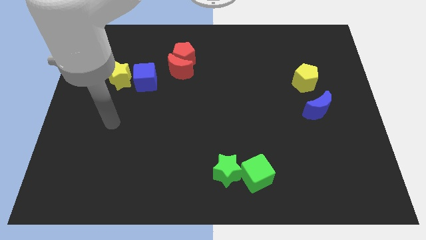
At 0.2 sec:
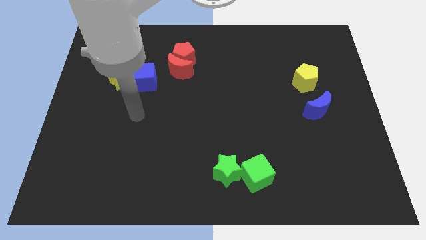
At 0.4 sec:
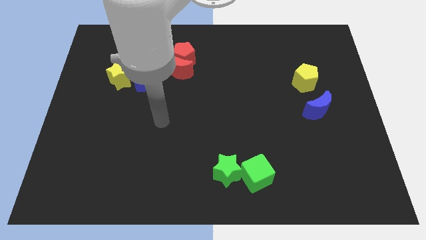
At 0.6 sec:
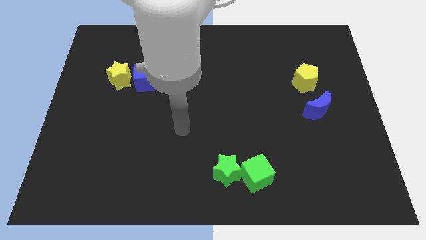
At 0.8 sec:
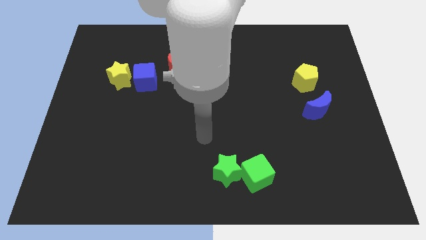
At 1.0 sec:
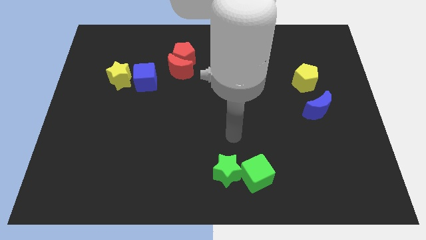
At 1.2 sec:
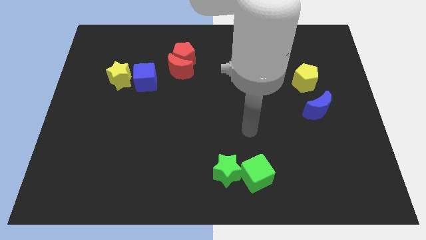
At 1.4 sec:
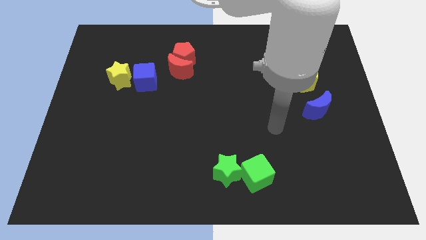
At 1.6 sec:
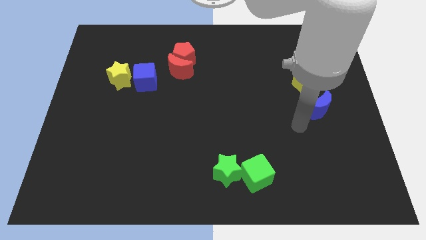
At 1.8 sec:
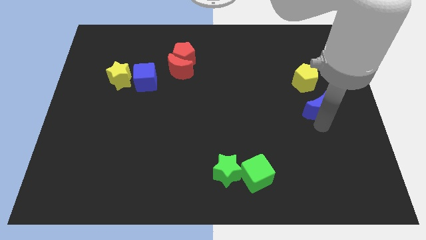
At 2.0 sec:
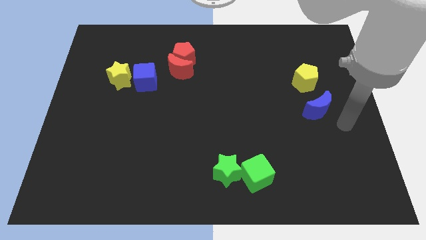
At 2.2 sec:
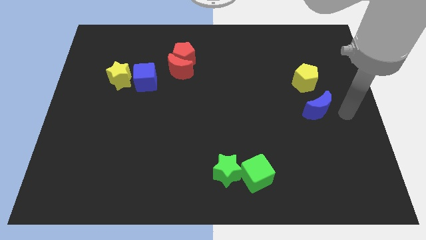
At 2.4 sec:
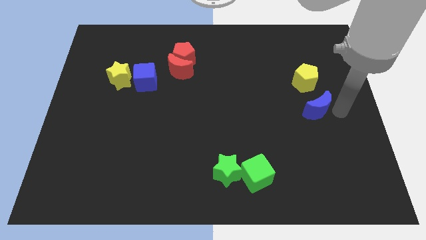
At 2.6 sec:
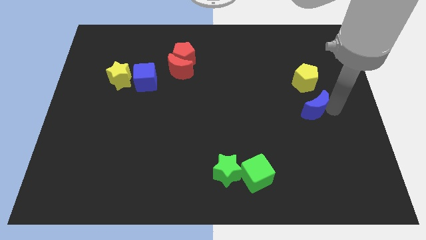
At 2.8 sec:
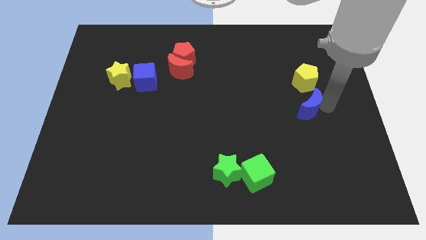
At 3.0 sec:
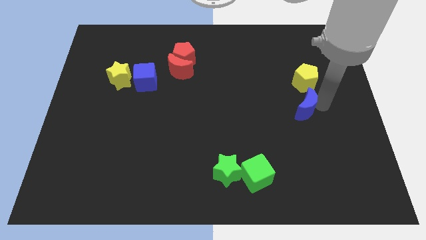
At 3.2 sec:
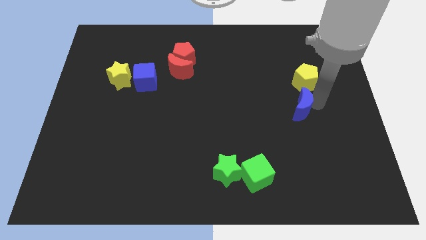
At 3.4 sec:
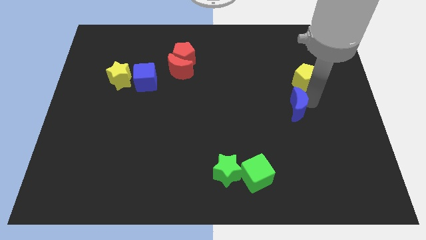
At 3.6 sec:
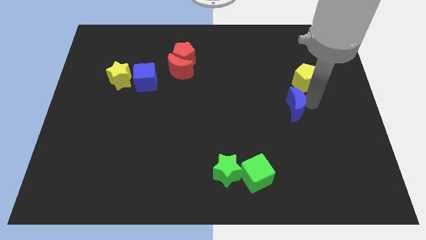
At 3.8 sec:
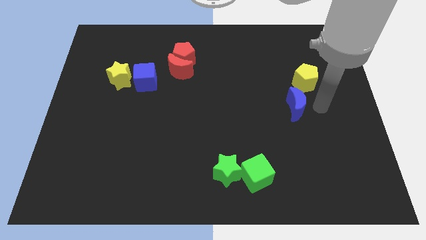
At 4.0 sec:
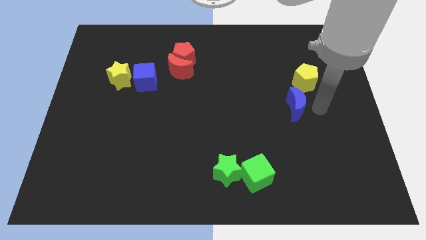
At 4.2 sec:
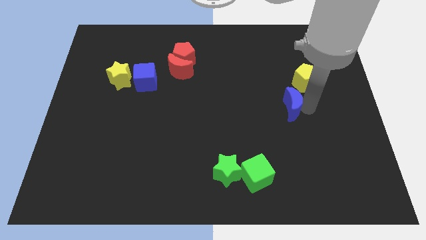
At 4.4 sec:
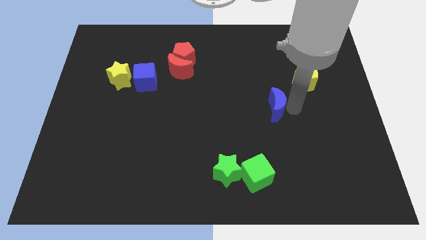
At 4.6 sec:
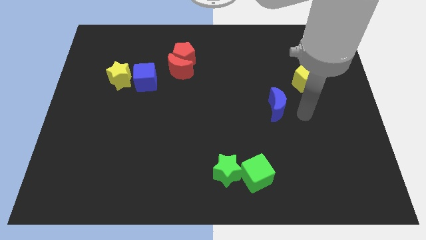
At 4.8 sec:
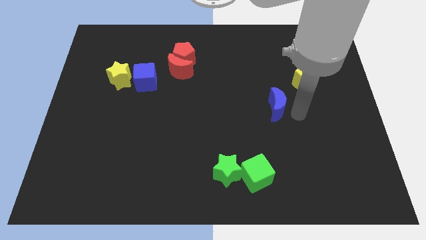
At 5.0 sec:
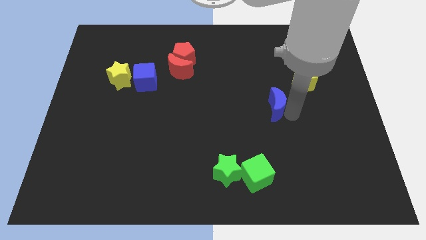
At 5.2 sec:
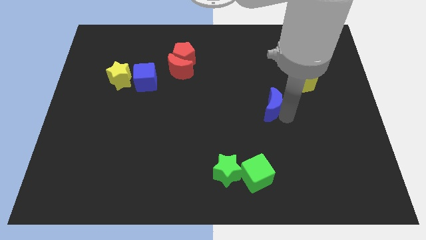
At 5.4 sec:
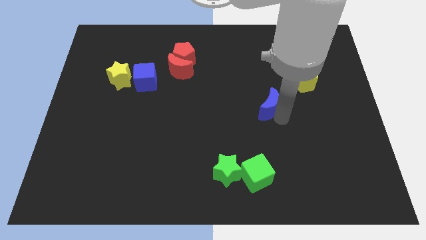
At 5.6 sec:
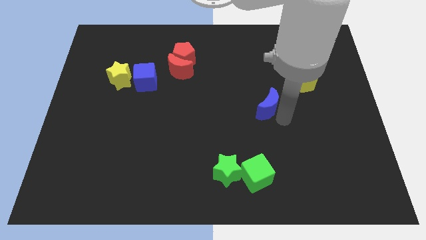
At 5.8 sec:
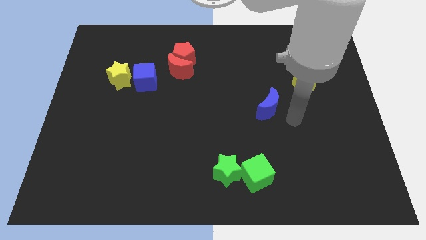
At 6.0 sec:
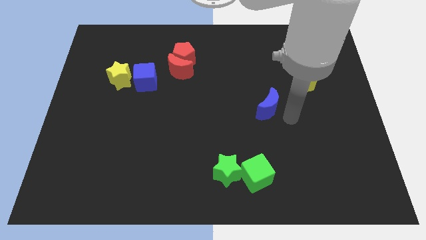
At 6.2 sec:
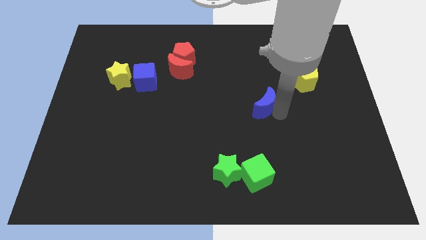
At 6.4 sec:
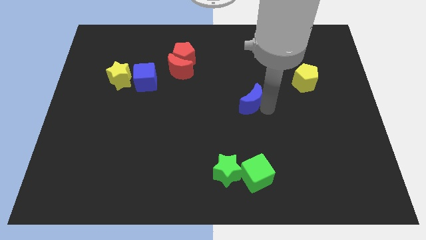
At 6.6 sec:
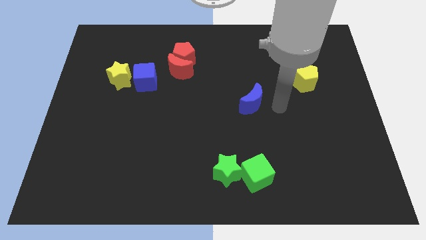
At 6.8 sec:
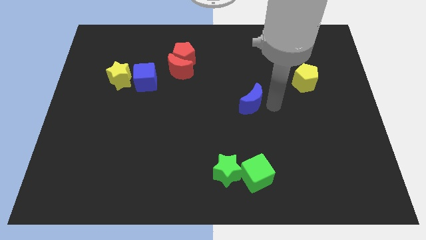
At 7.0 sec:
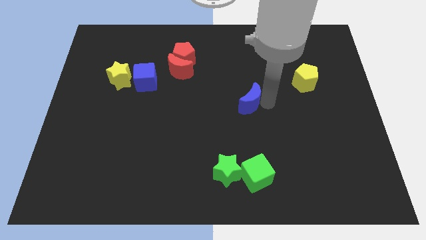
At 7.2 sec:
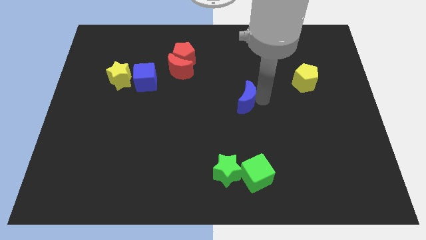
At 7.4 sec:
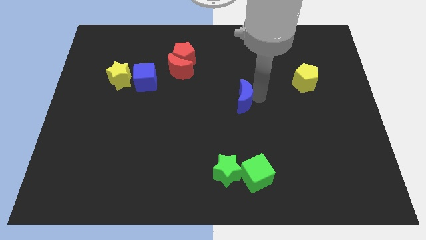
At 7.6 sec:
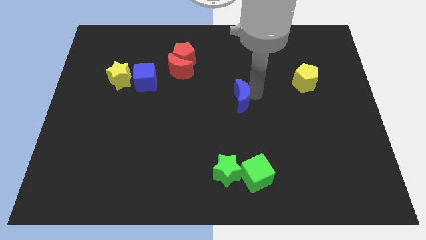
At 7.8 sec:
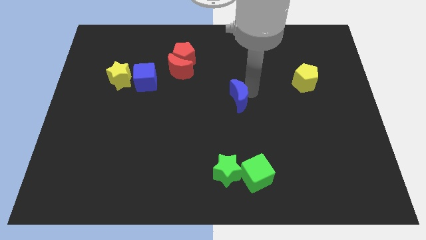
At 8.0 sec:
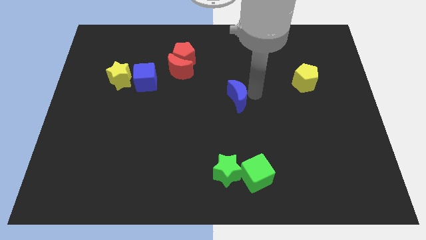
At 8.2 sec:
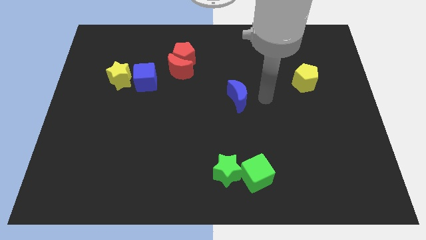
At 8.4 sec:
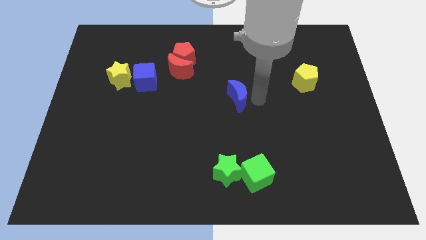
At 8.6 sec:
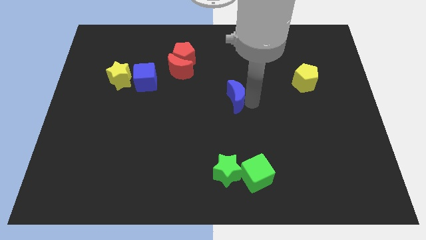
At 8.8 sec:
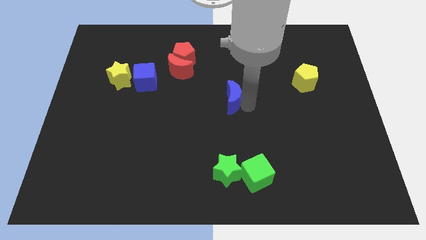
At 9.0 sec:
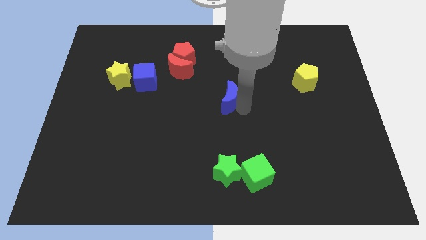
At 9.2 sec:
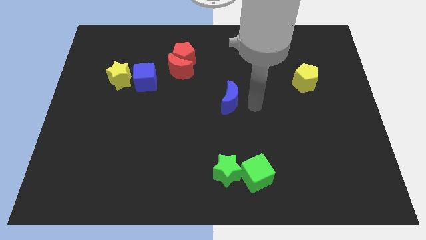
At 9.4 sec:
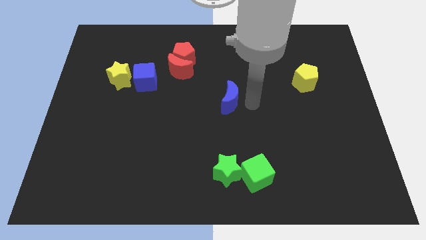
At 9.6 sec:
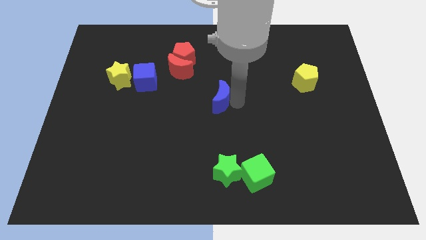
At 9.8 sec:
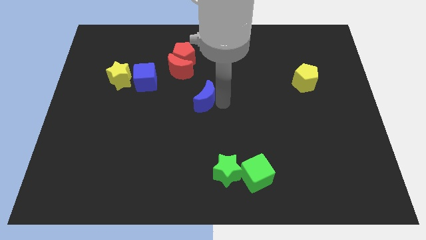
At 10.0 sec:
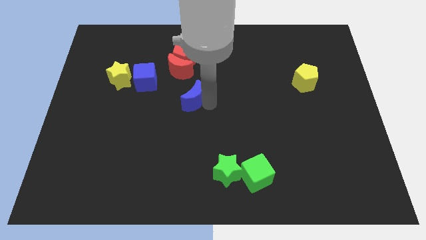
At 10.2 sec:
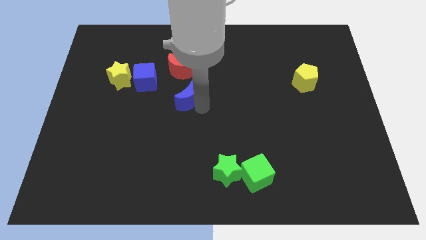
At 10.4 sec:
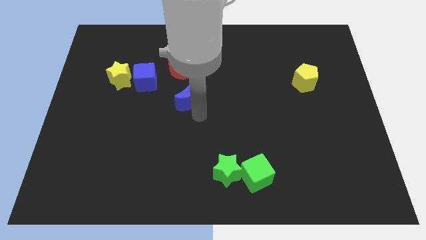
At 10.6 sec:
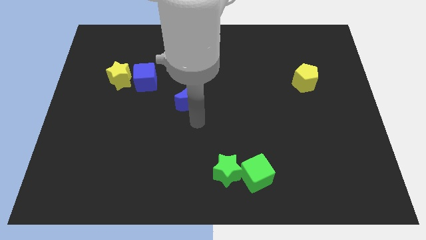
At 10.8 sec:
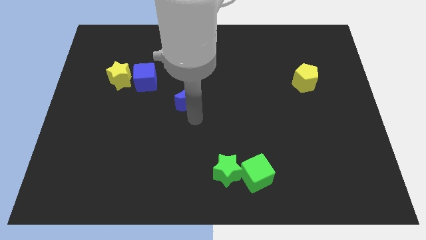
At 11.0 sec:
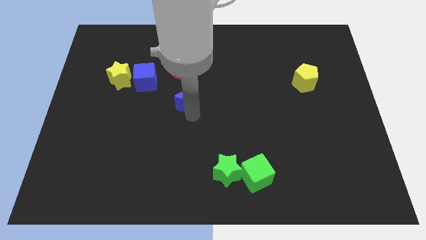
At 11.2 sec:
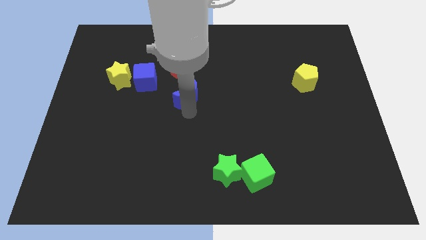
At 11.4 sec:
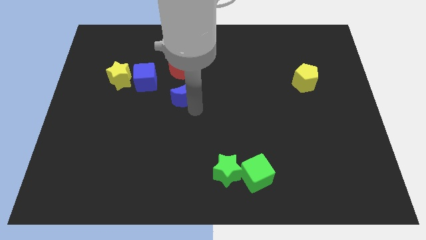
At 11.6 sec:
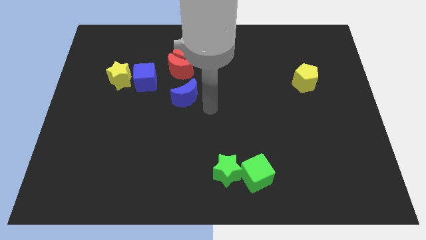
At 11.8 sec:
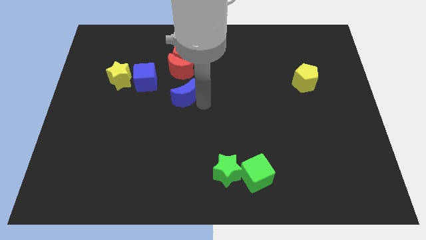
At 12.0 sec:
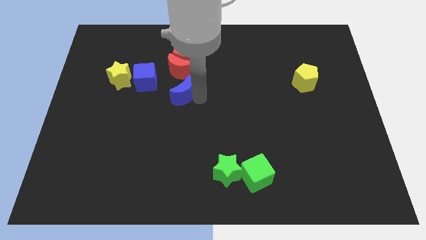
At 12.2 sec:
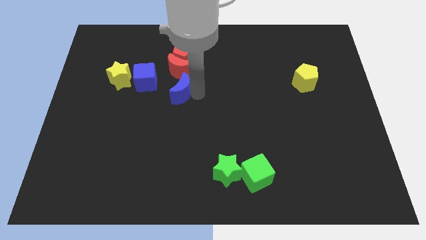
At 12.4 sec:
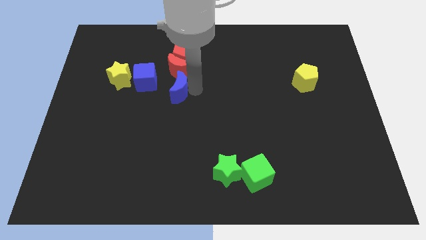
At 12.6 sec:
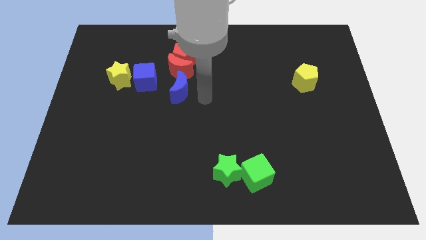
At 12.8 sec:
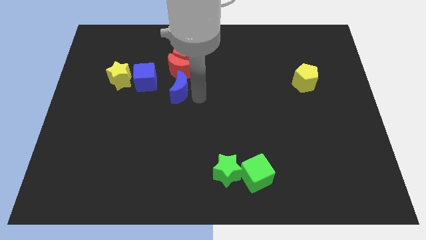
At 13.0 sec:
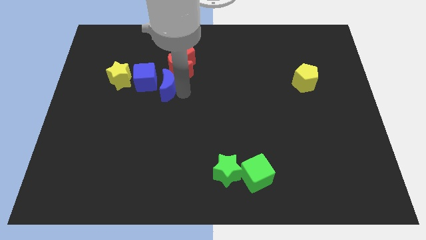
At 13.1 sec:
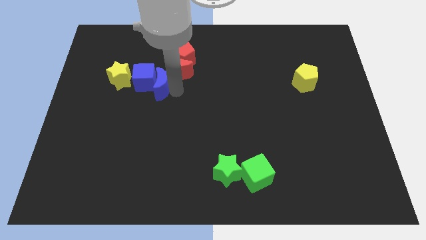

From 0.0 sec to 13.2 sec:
put the blue moon close to the blue cube
